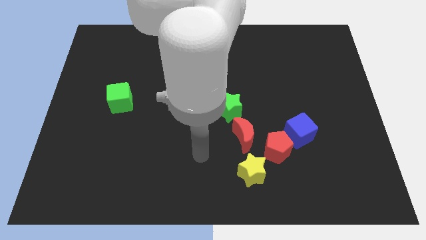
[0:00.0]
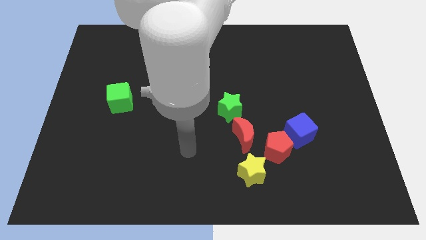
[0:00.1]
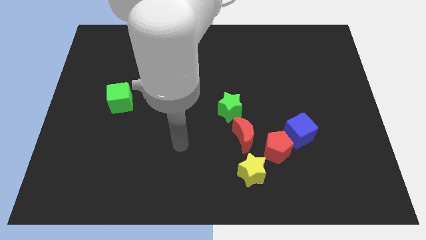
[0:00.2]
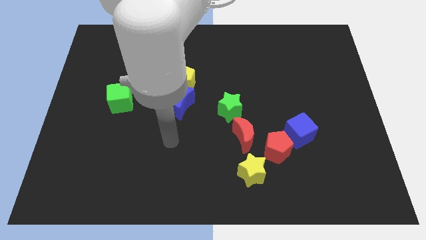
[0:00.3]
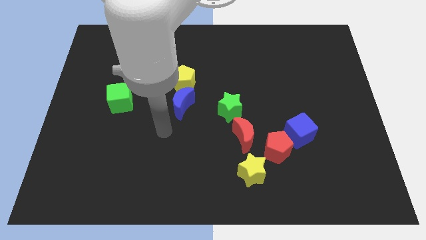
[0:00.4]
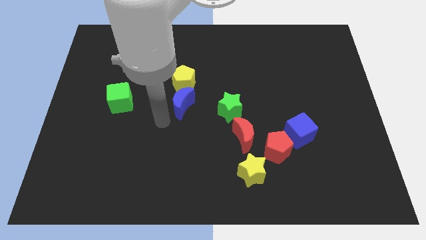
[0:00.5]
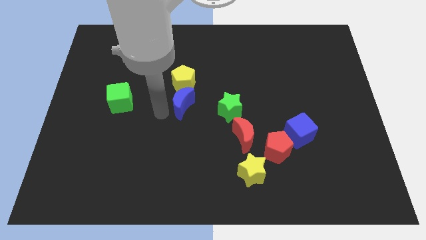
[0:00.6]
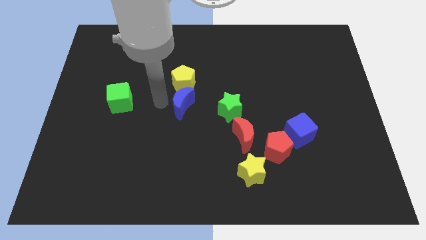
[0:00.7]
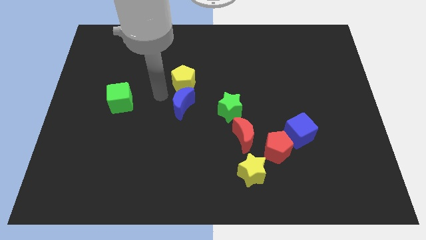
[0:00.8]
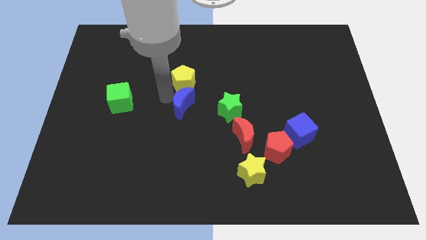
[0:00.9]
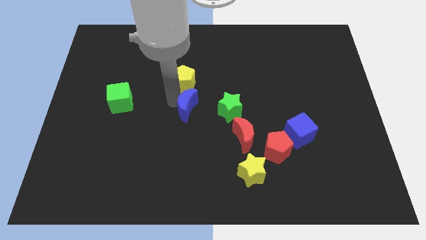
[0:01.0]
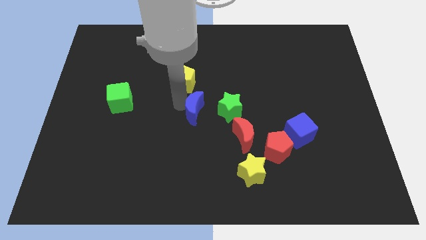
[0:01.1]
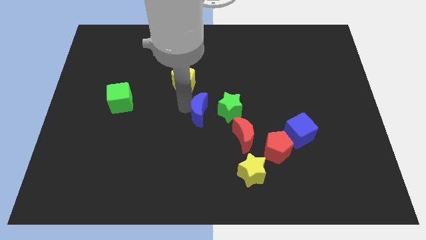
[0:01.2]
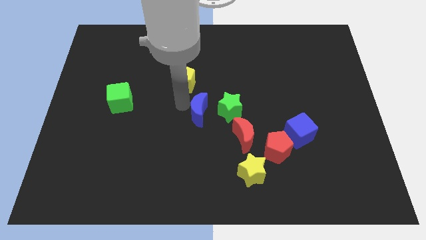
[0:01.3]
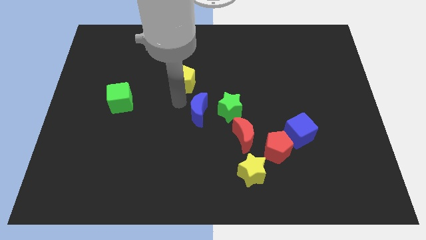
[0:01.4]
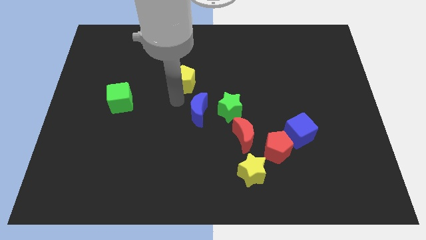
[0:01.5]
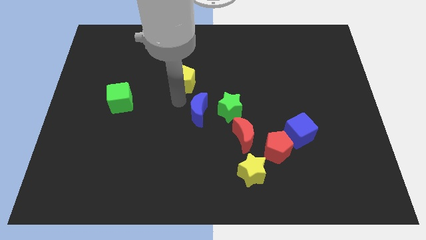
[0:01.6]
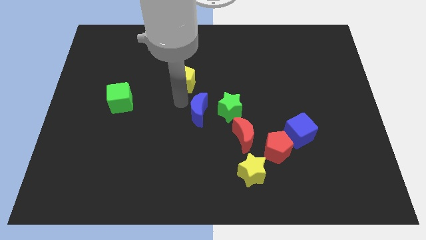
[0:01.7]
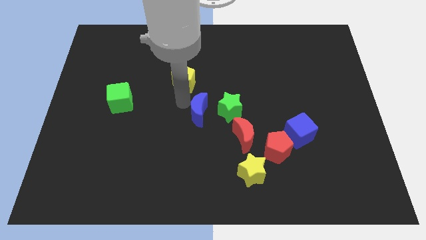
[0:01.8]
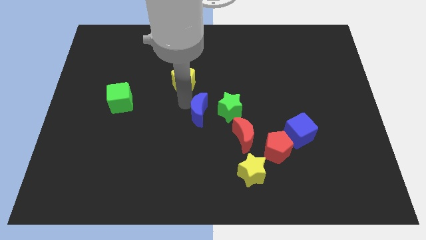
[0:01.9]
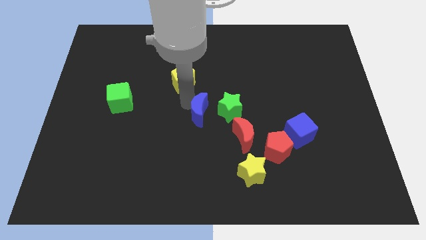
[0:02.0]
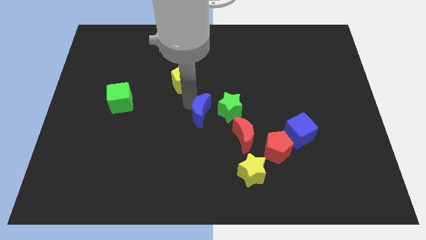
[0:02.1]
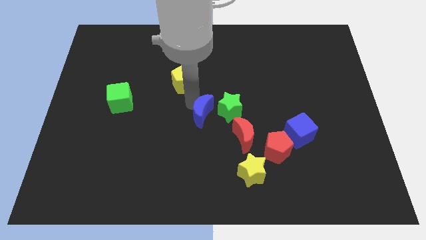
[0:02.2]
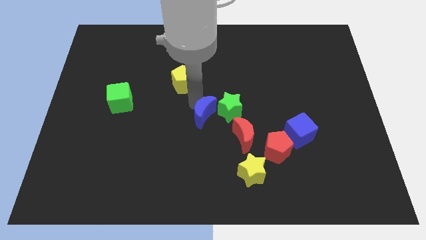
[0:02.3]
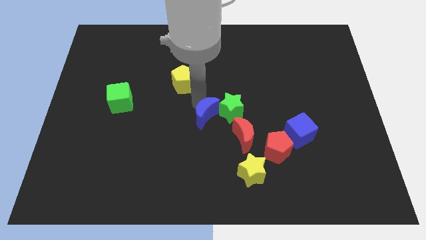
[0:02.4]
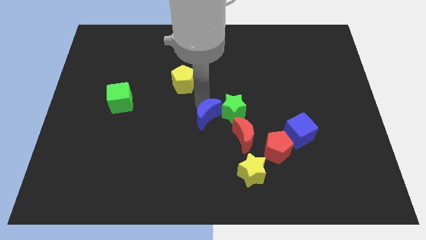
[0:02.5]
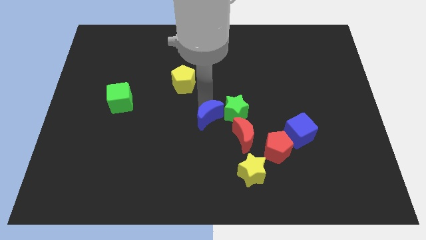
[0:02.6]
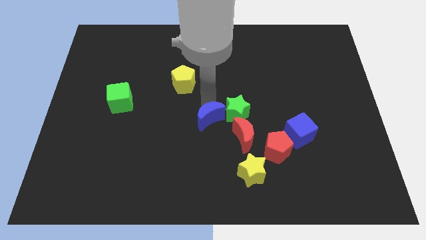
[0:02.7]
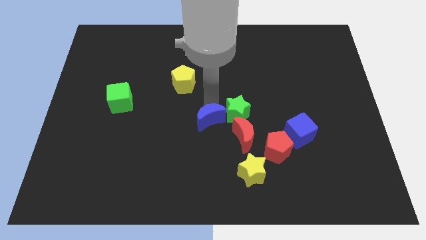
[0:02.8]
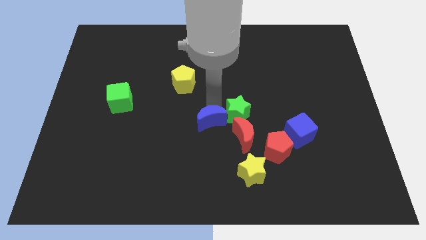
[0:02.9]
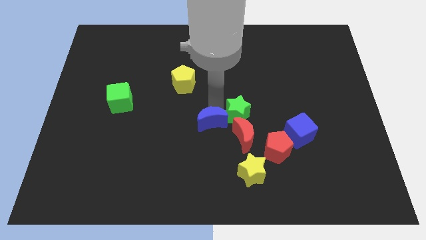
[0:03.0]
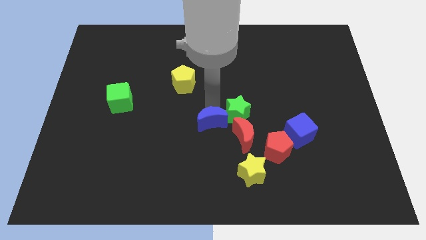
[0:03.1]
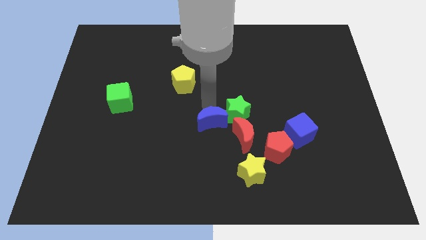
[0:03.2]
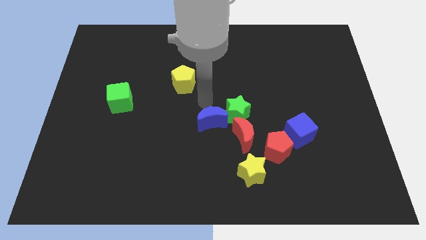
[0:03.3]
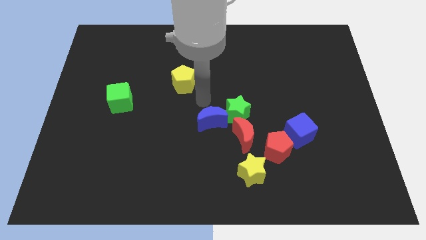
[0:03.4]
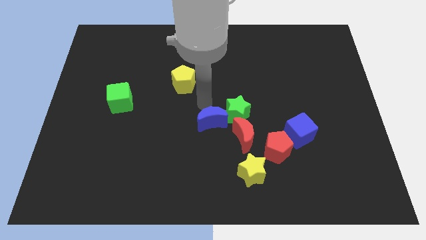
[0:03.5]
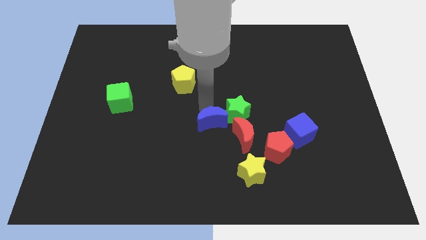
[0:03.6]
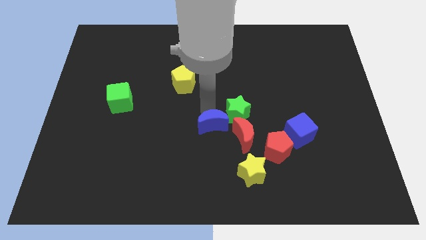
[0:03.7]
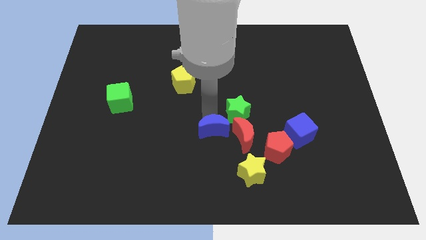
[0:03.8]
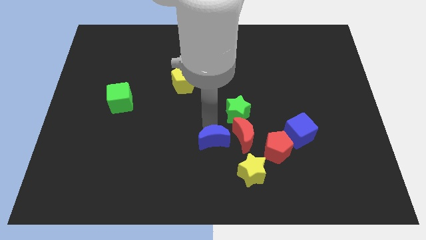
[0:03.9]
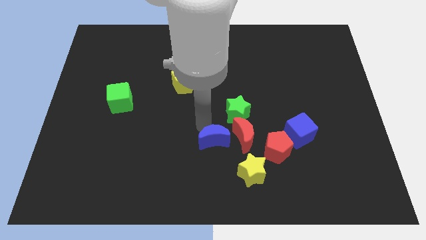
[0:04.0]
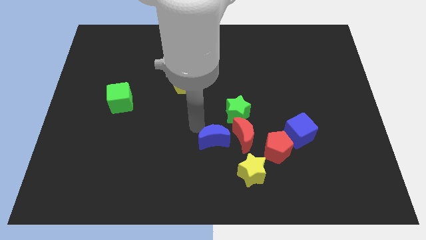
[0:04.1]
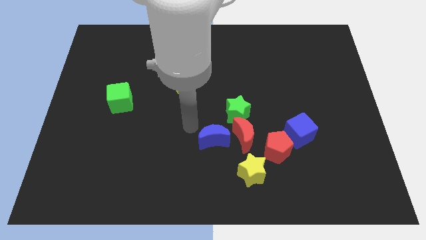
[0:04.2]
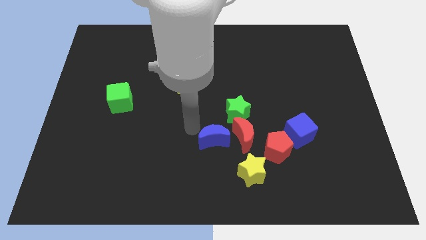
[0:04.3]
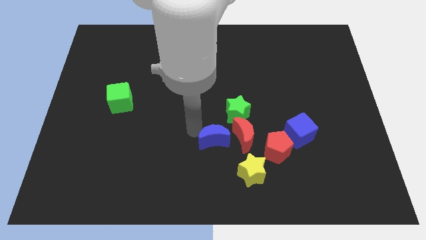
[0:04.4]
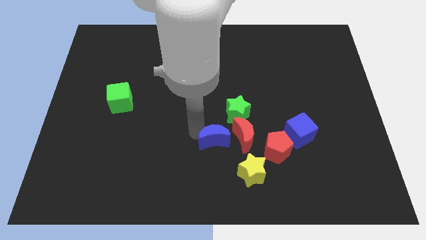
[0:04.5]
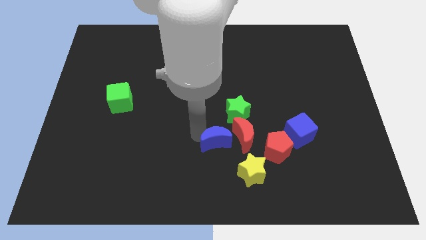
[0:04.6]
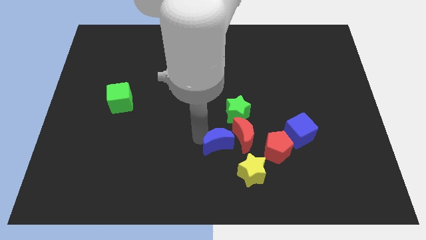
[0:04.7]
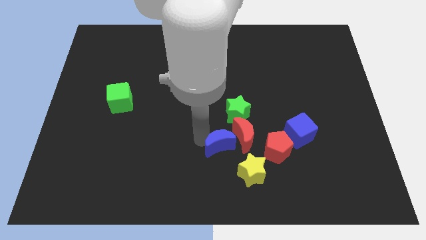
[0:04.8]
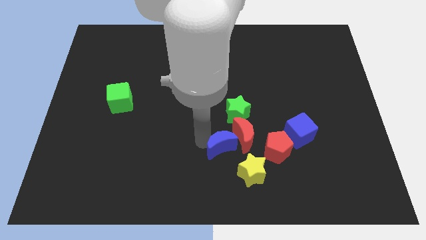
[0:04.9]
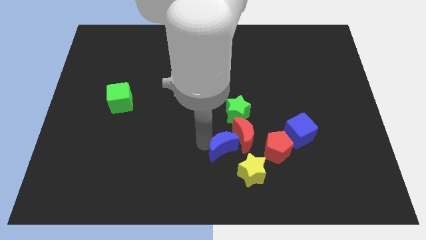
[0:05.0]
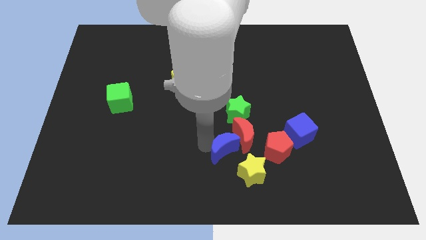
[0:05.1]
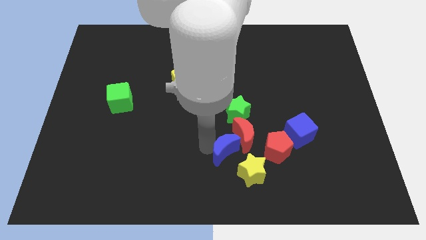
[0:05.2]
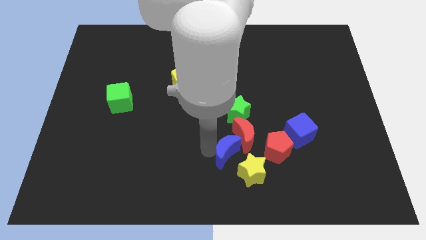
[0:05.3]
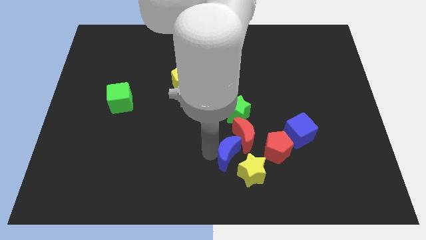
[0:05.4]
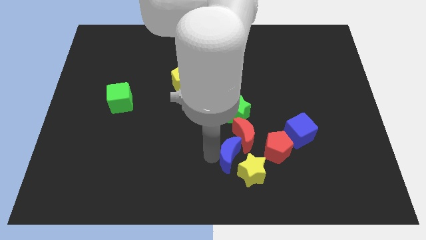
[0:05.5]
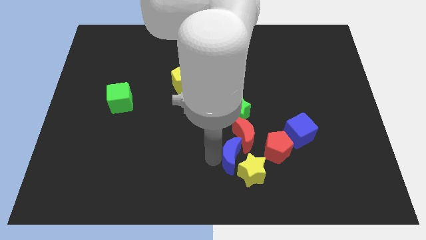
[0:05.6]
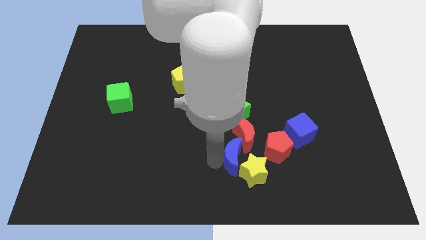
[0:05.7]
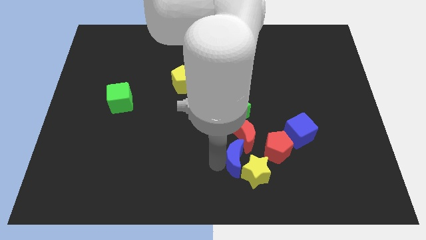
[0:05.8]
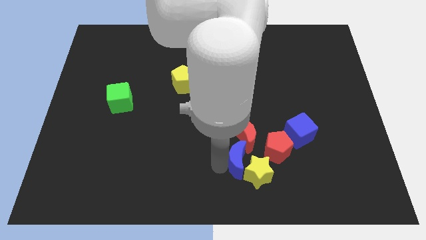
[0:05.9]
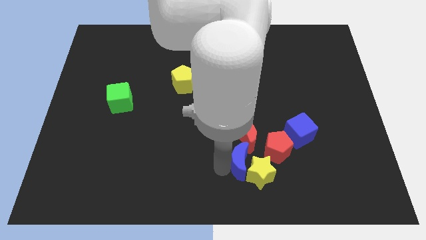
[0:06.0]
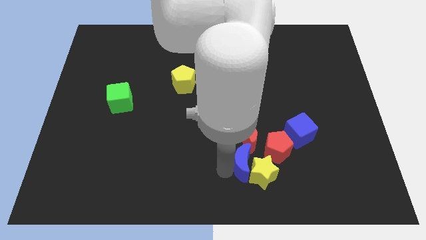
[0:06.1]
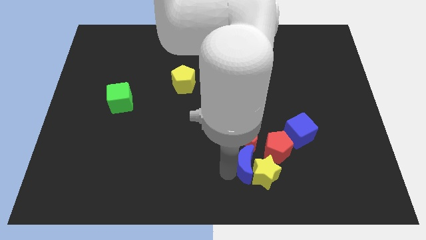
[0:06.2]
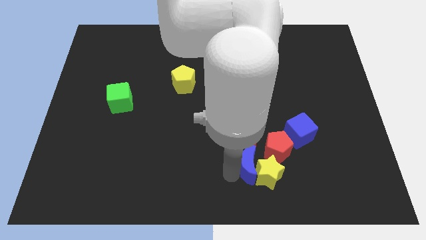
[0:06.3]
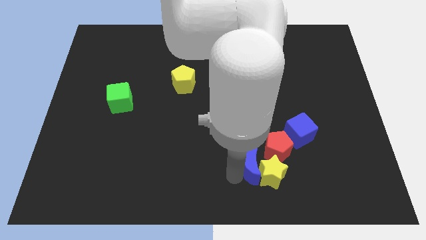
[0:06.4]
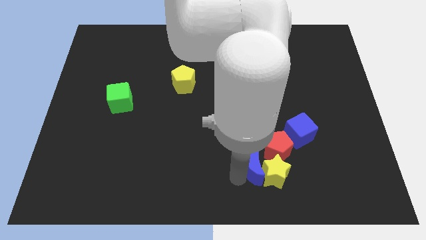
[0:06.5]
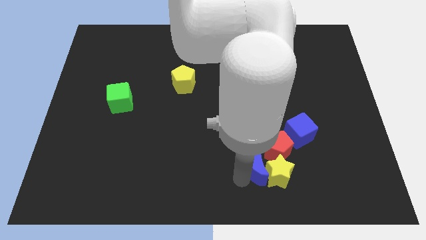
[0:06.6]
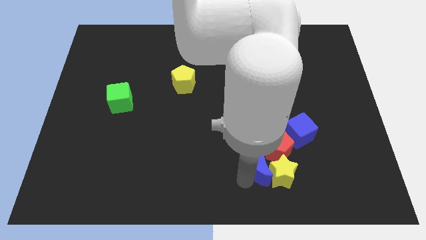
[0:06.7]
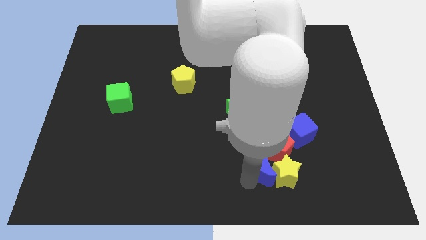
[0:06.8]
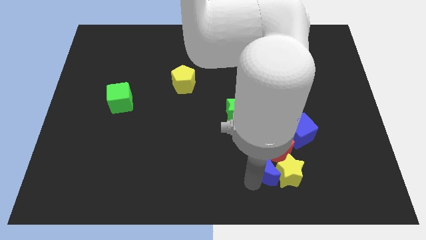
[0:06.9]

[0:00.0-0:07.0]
slide the blue moon towards the red pentagon

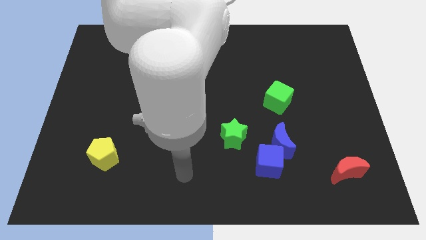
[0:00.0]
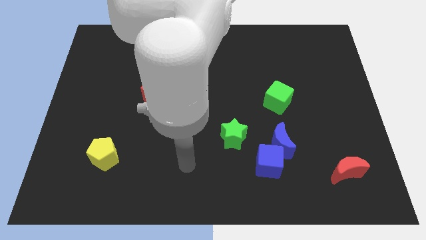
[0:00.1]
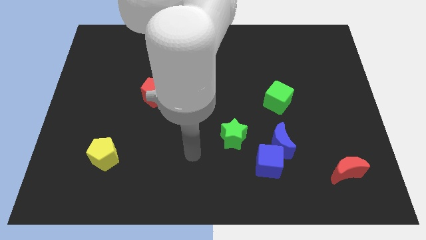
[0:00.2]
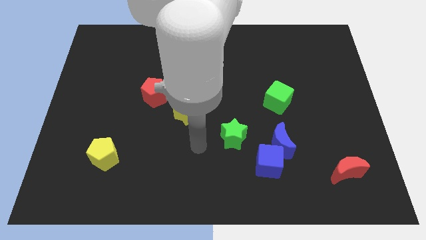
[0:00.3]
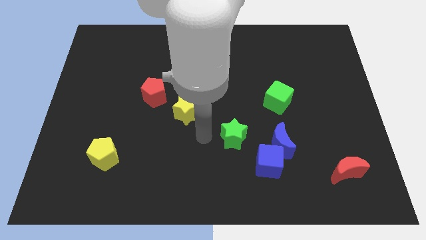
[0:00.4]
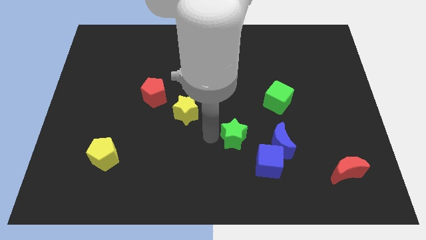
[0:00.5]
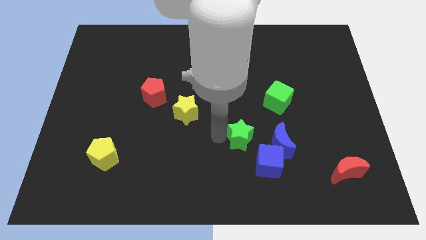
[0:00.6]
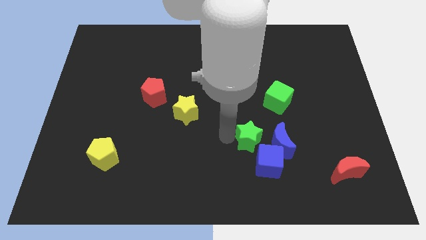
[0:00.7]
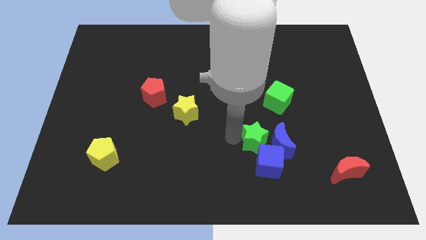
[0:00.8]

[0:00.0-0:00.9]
push the green star close to the blue moon
